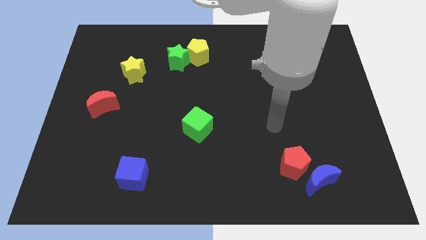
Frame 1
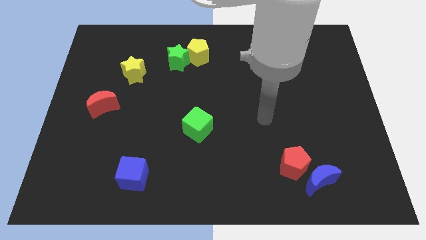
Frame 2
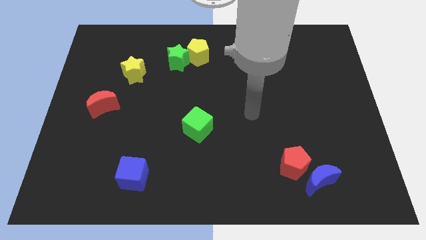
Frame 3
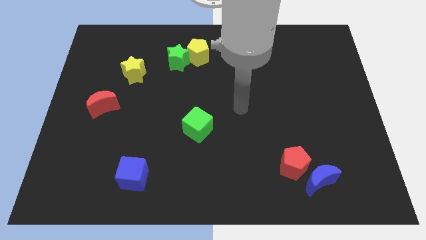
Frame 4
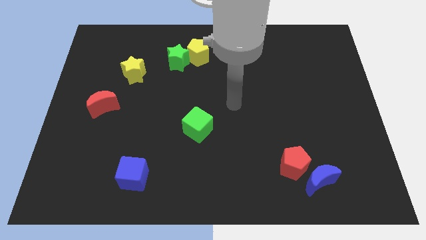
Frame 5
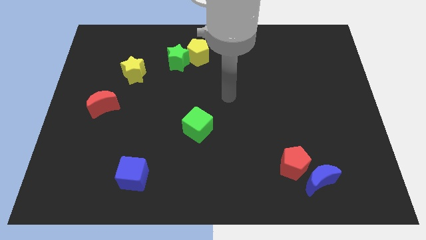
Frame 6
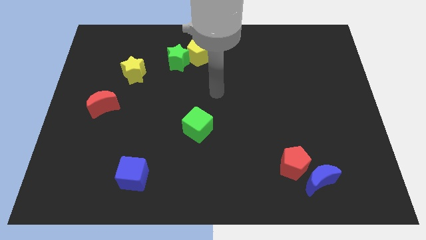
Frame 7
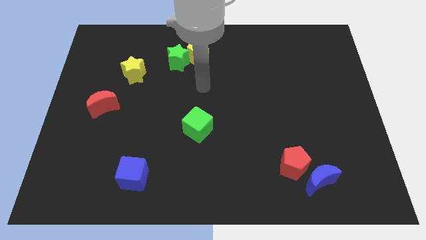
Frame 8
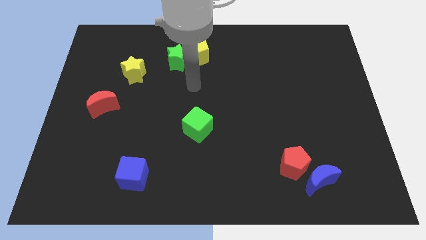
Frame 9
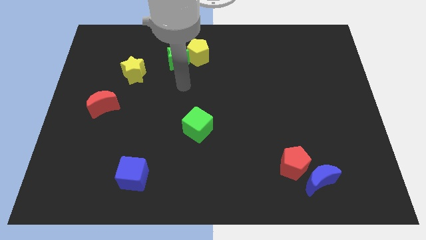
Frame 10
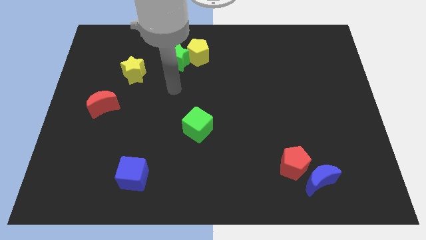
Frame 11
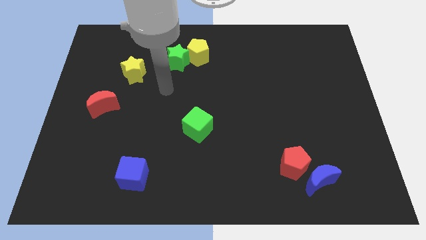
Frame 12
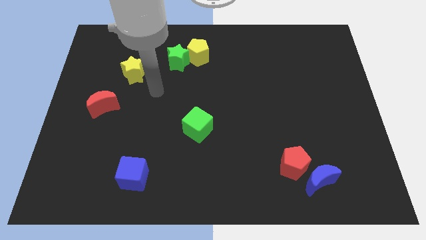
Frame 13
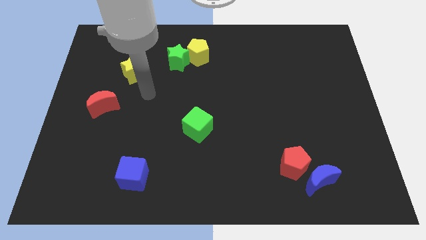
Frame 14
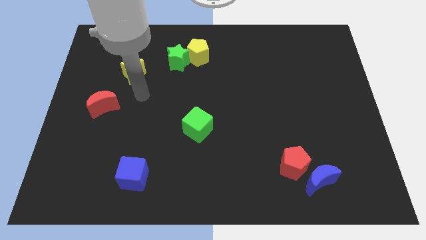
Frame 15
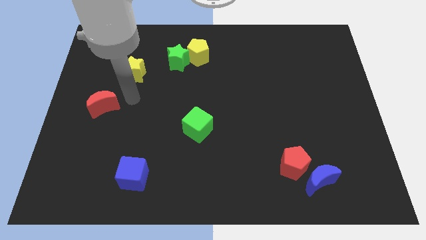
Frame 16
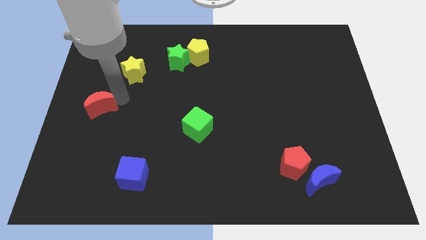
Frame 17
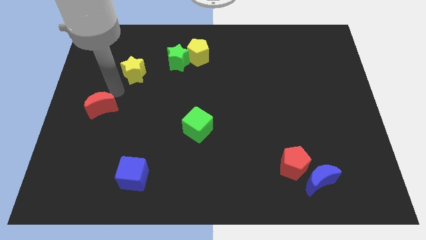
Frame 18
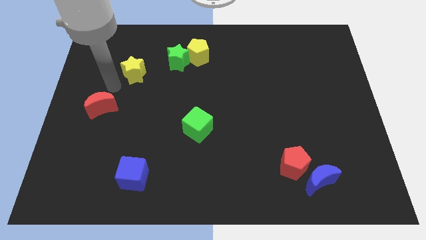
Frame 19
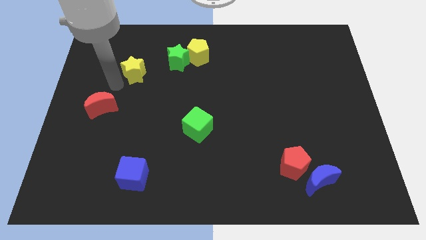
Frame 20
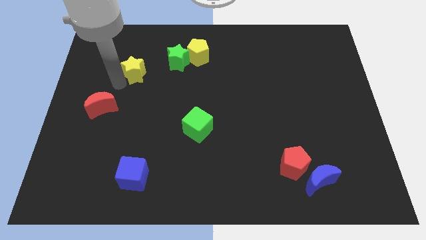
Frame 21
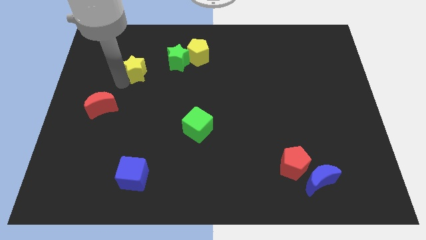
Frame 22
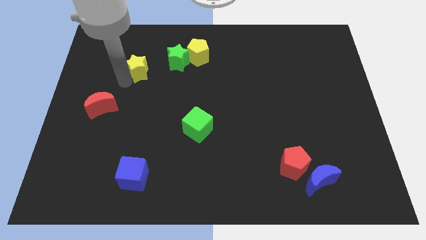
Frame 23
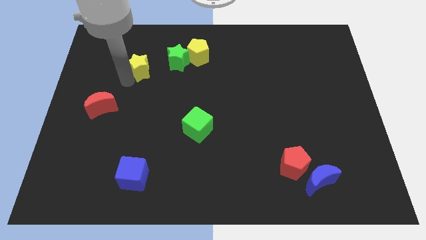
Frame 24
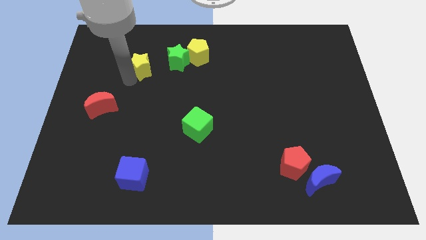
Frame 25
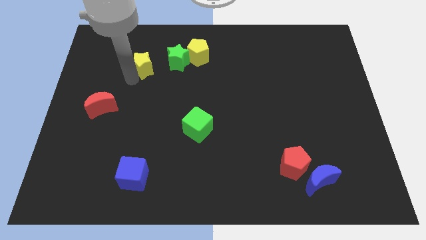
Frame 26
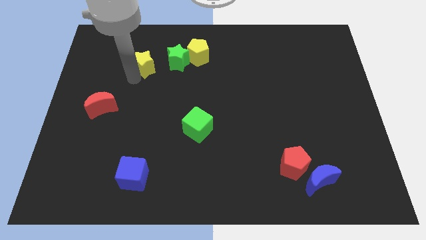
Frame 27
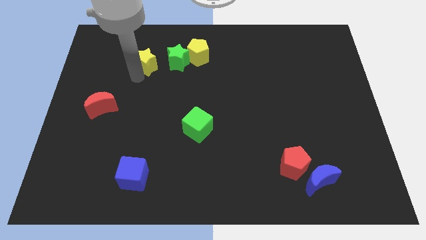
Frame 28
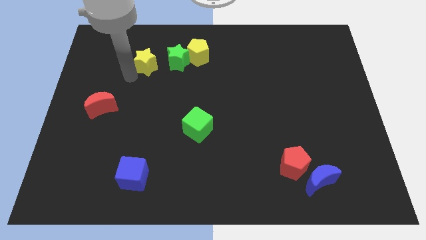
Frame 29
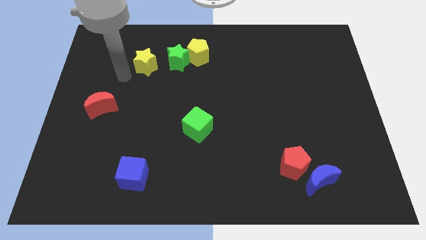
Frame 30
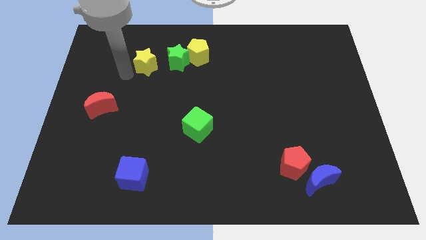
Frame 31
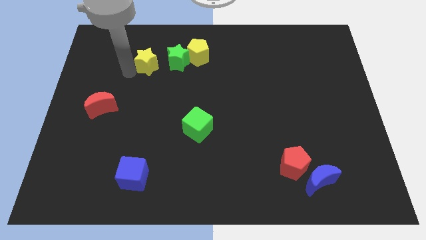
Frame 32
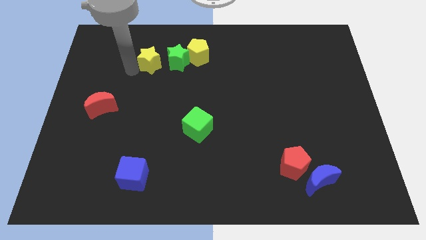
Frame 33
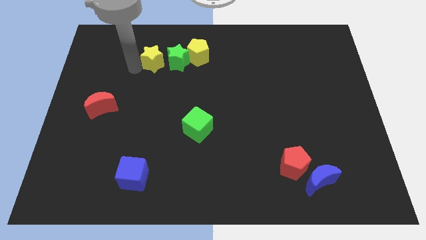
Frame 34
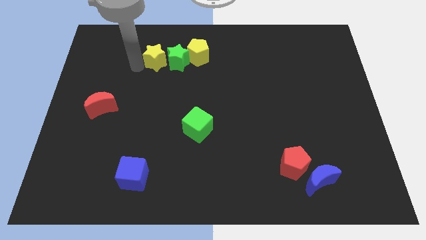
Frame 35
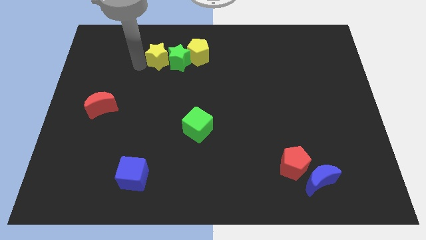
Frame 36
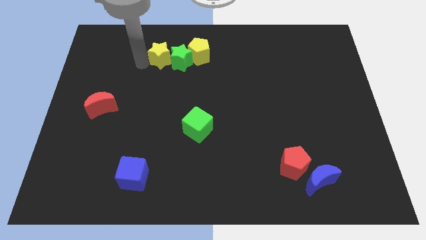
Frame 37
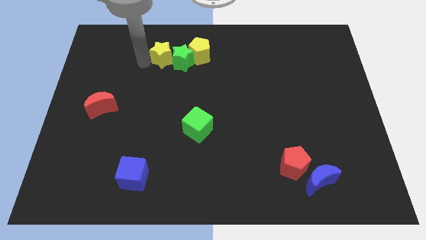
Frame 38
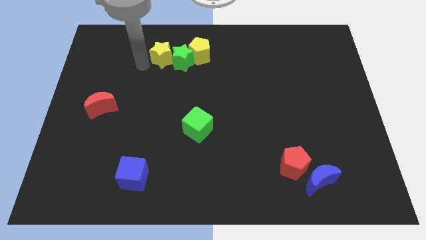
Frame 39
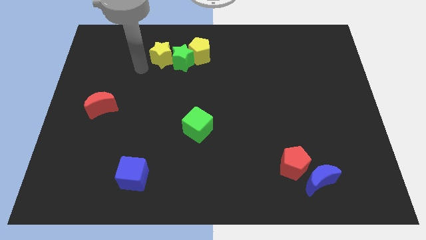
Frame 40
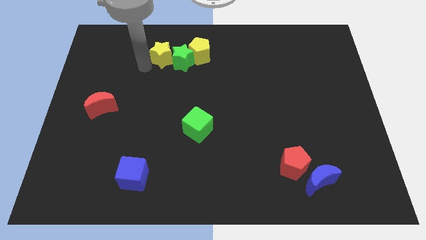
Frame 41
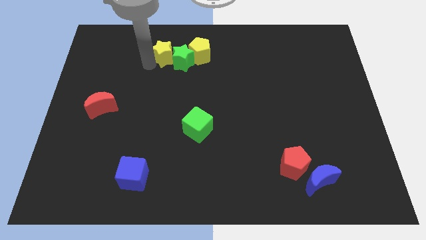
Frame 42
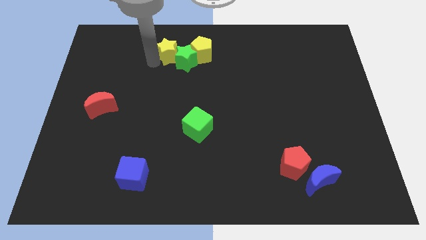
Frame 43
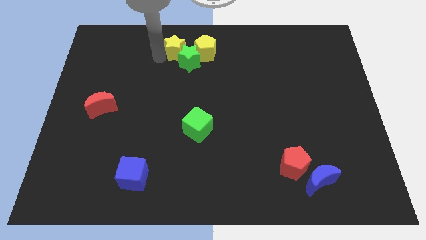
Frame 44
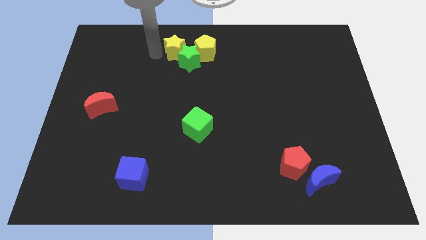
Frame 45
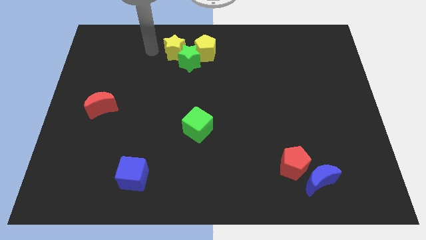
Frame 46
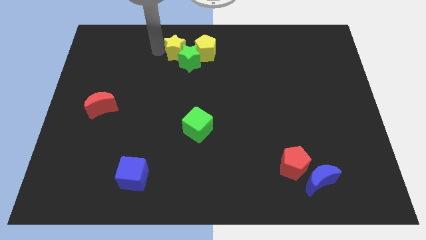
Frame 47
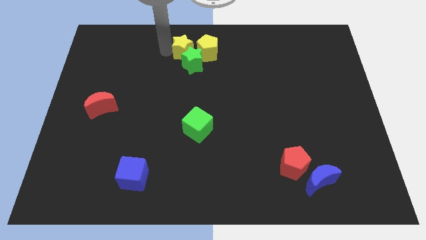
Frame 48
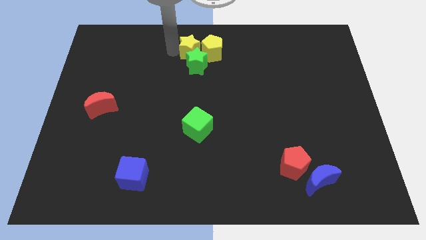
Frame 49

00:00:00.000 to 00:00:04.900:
push the yellow star next to the yellow pentagon

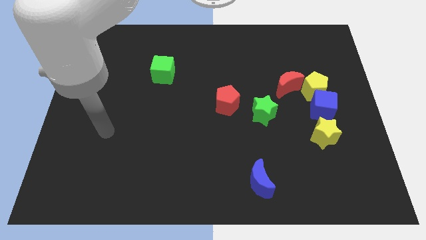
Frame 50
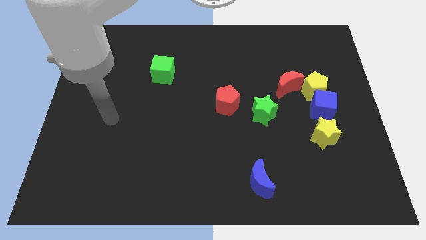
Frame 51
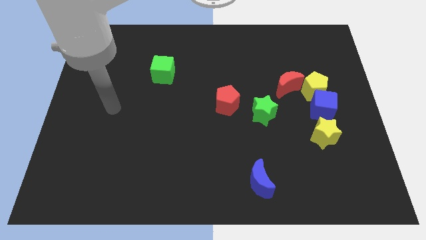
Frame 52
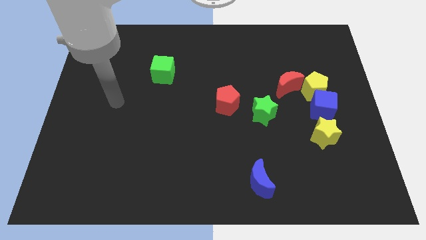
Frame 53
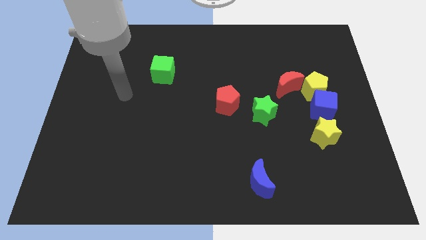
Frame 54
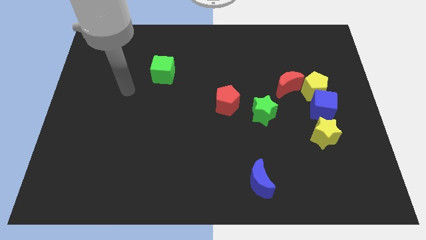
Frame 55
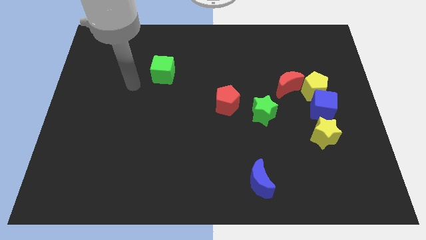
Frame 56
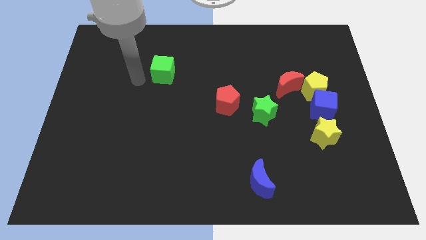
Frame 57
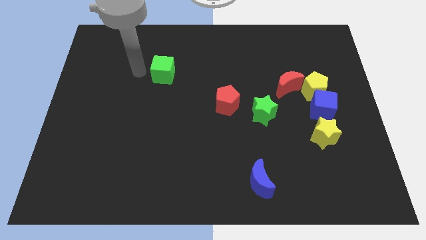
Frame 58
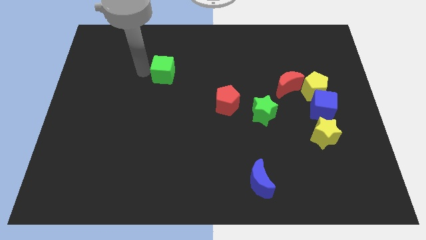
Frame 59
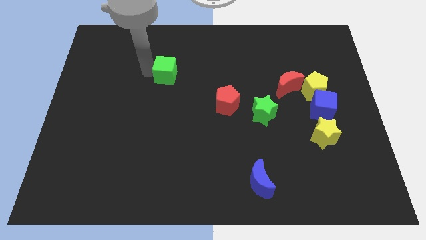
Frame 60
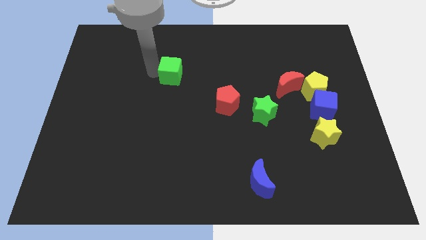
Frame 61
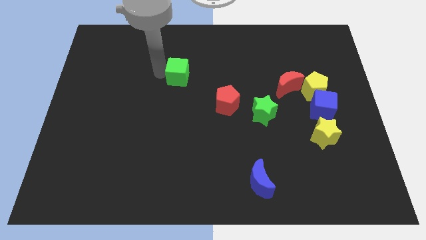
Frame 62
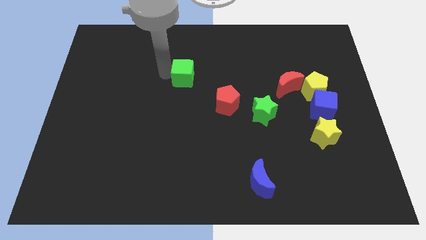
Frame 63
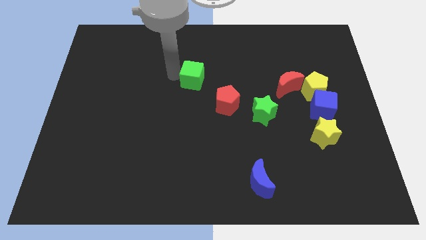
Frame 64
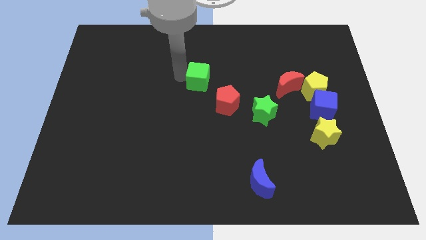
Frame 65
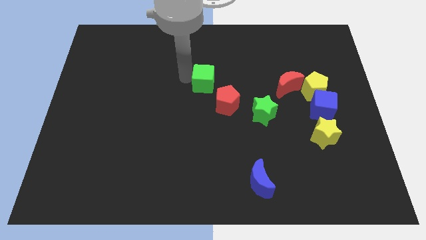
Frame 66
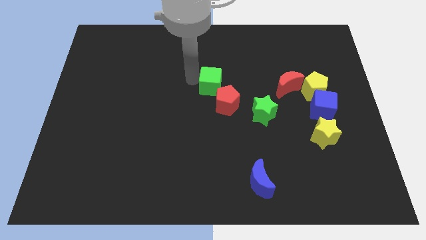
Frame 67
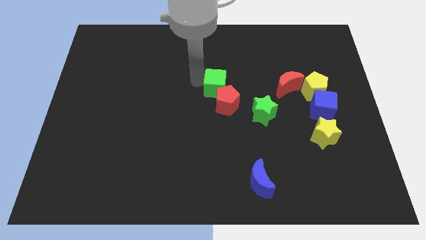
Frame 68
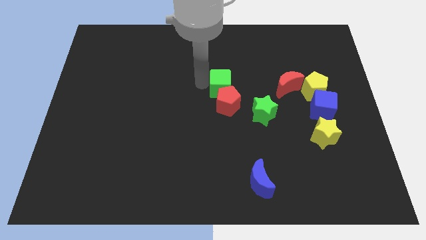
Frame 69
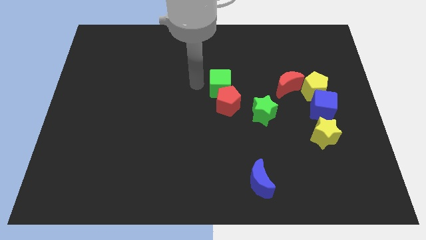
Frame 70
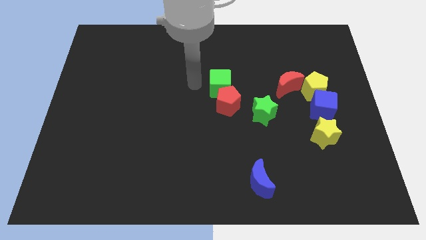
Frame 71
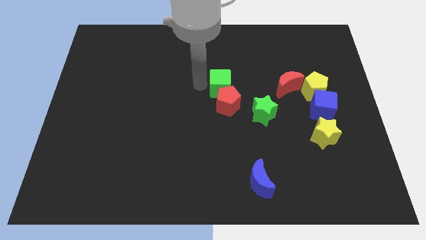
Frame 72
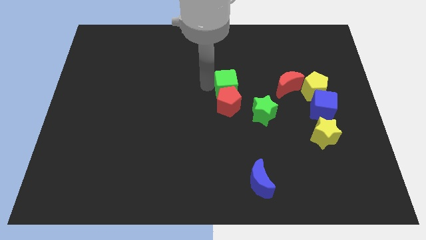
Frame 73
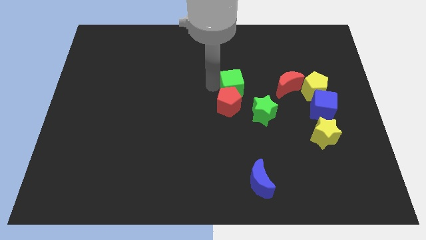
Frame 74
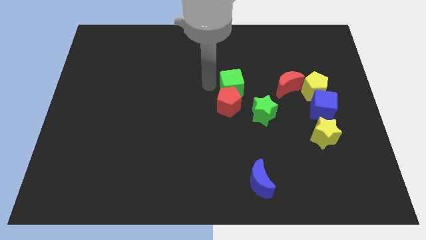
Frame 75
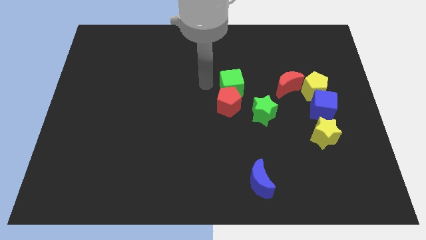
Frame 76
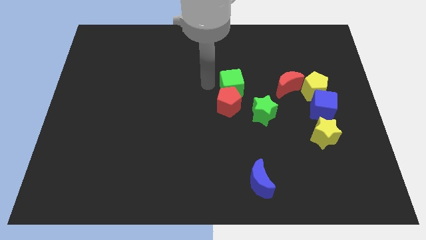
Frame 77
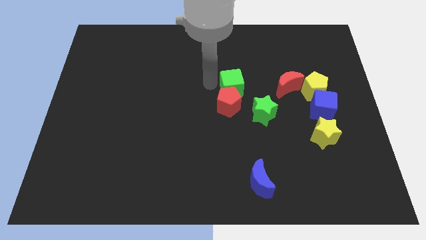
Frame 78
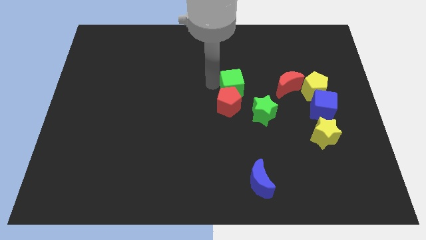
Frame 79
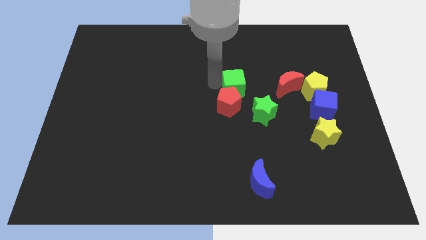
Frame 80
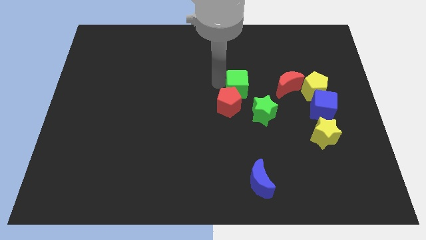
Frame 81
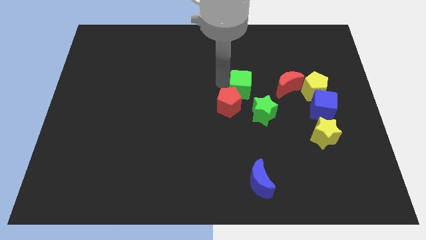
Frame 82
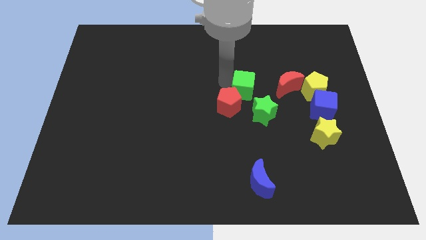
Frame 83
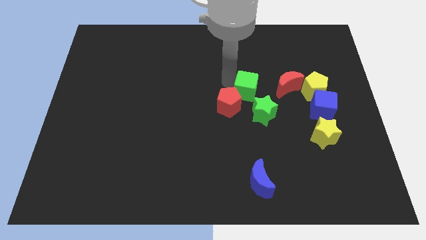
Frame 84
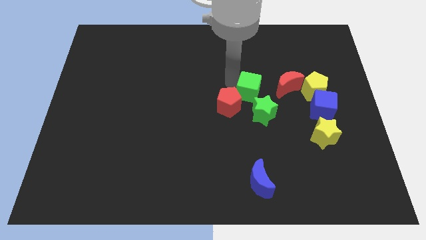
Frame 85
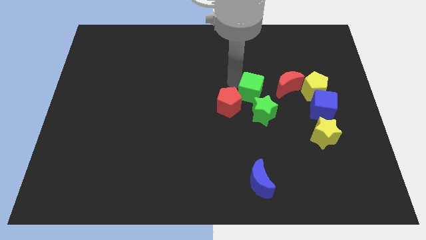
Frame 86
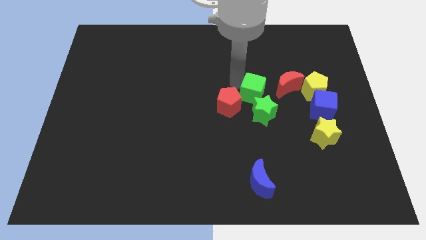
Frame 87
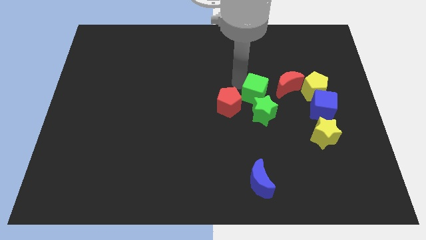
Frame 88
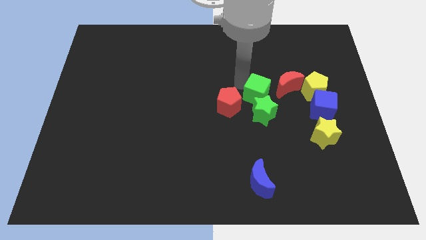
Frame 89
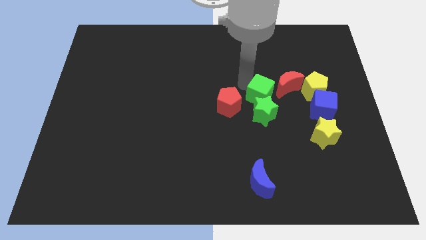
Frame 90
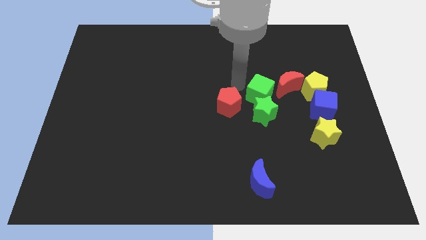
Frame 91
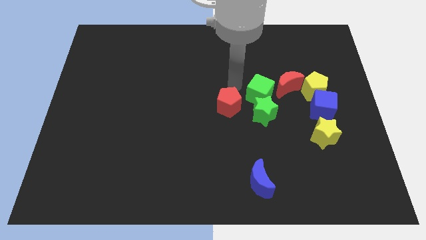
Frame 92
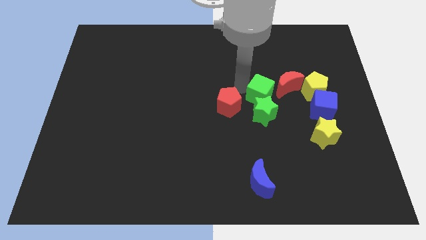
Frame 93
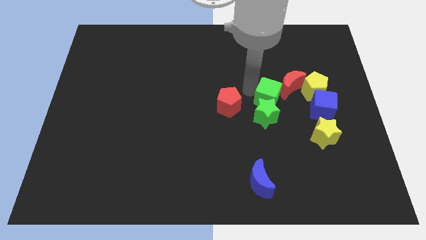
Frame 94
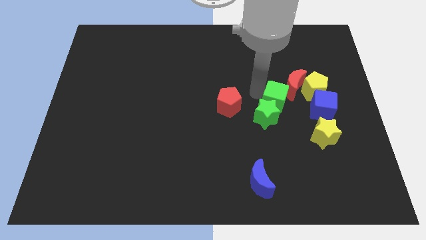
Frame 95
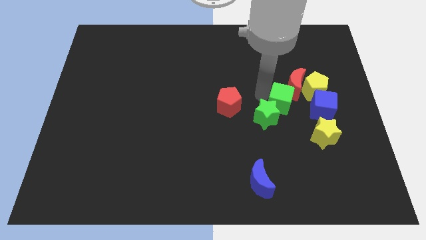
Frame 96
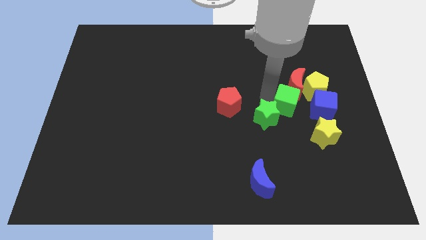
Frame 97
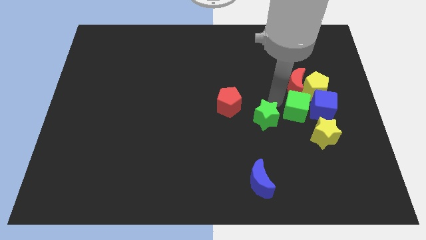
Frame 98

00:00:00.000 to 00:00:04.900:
move the green cube next to the blue cube
